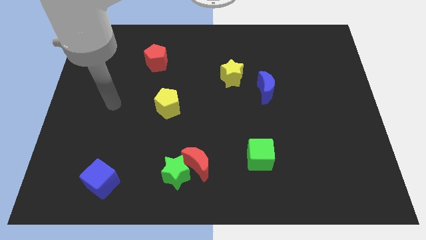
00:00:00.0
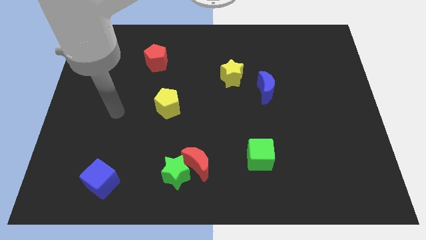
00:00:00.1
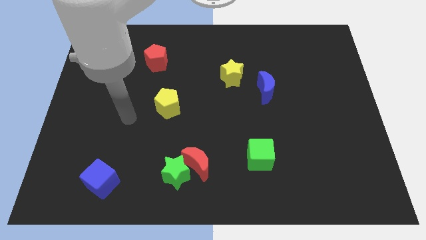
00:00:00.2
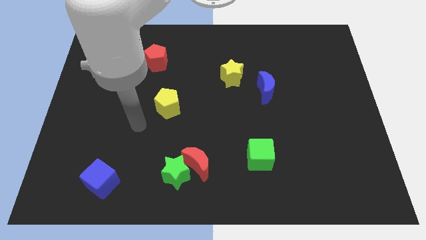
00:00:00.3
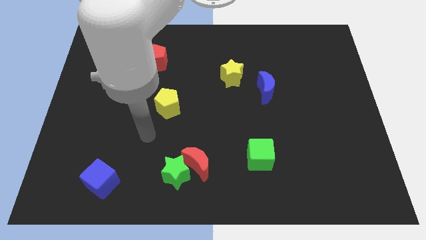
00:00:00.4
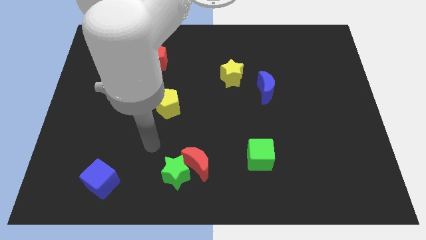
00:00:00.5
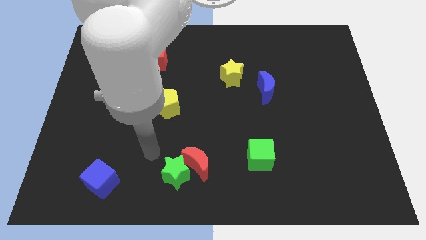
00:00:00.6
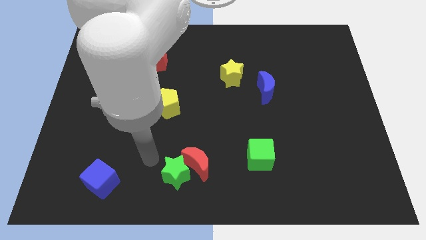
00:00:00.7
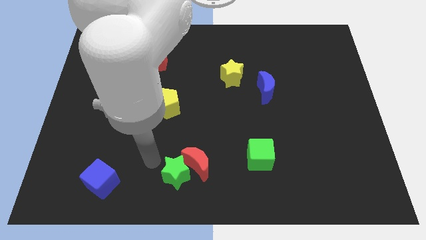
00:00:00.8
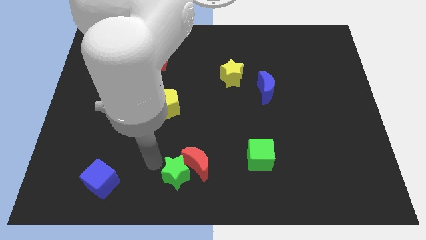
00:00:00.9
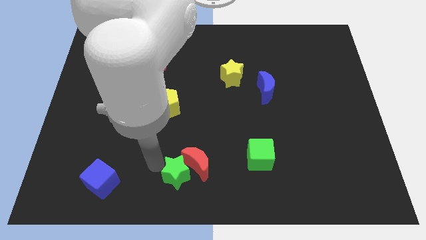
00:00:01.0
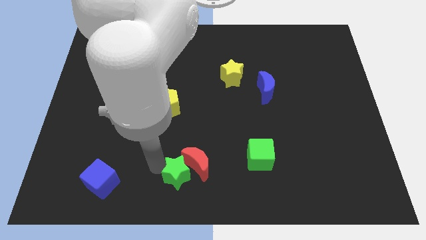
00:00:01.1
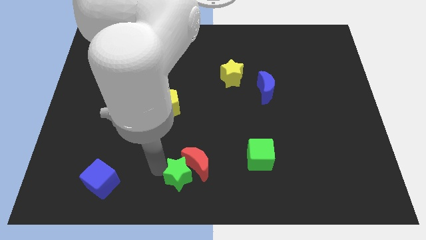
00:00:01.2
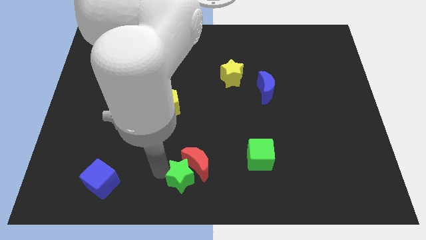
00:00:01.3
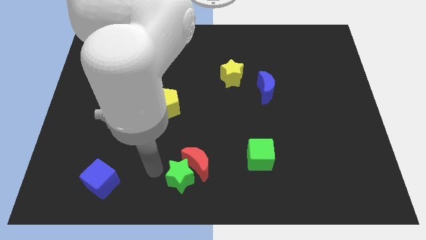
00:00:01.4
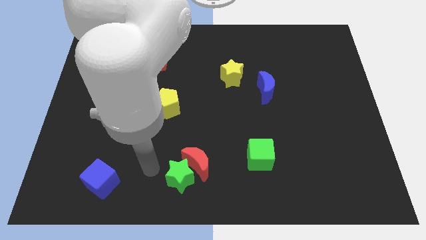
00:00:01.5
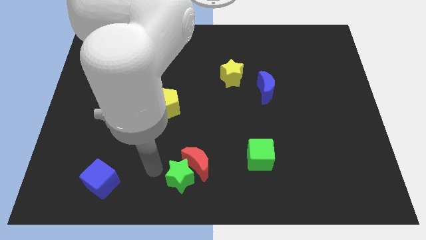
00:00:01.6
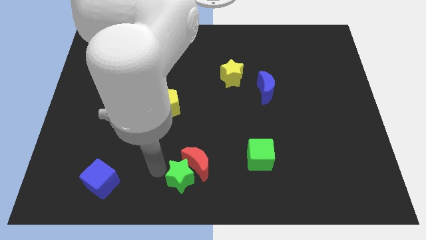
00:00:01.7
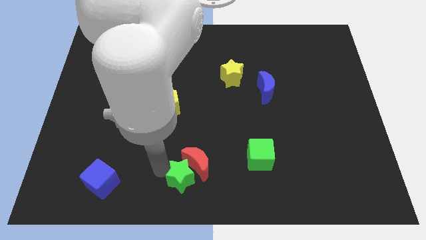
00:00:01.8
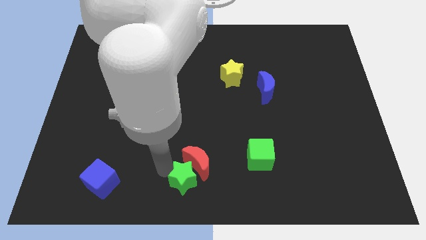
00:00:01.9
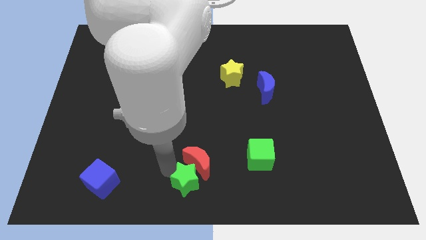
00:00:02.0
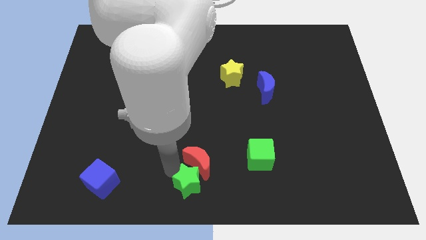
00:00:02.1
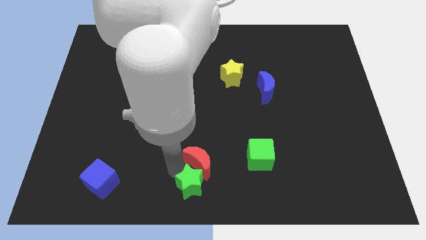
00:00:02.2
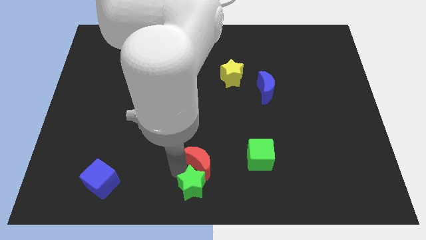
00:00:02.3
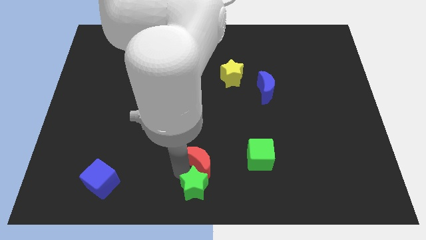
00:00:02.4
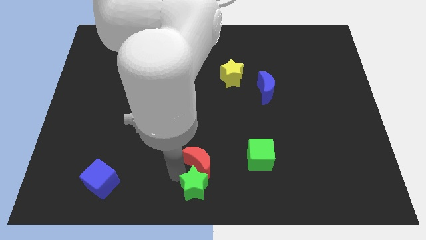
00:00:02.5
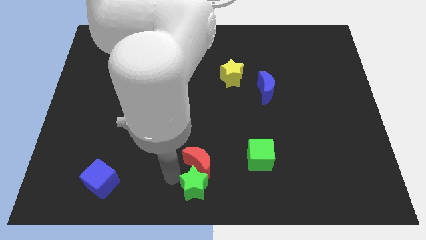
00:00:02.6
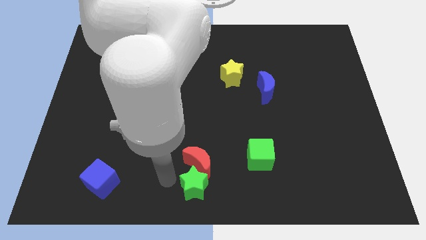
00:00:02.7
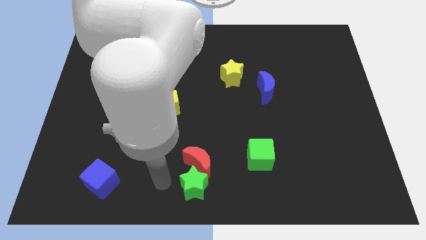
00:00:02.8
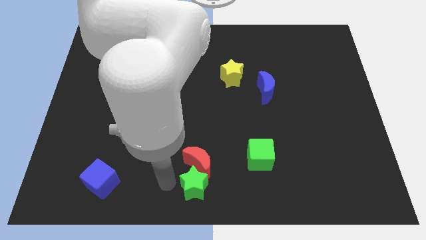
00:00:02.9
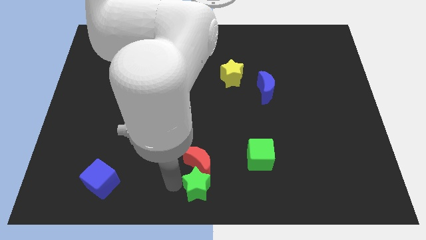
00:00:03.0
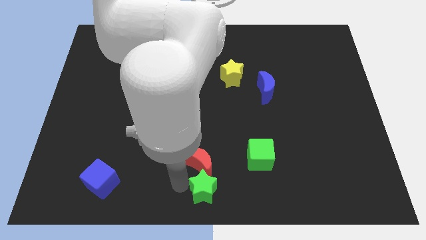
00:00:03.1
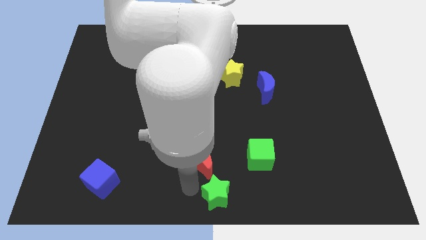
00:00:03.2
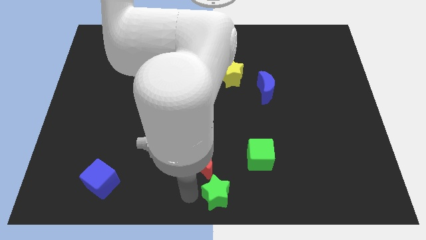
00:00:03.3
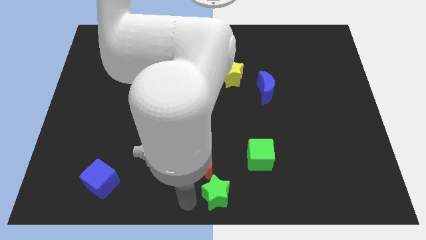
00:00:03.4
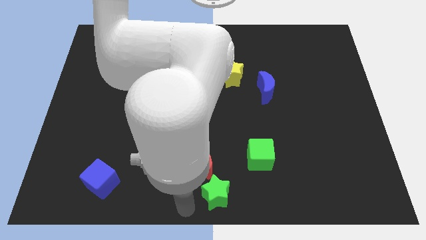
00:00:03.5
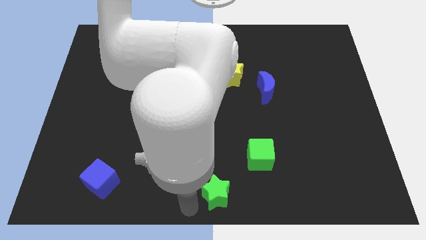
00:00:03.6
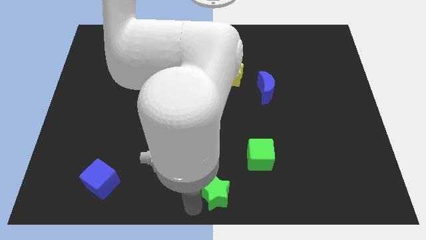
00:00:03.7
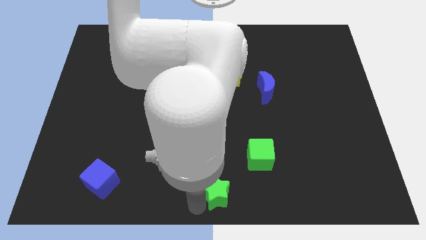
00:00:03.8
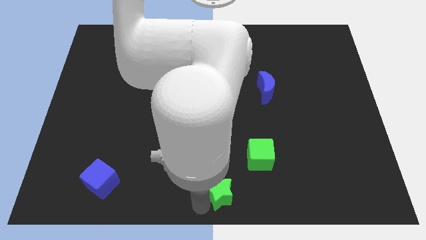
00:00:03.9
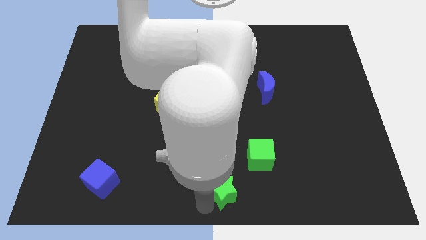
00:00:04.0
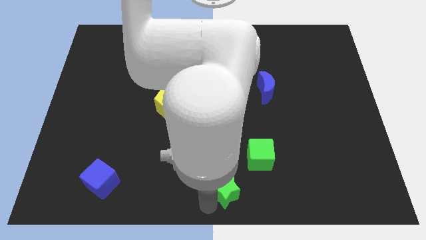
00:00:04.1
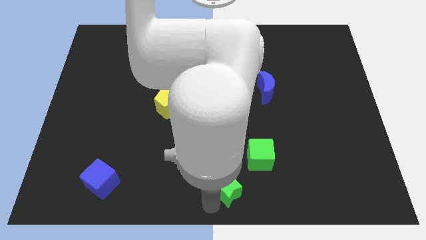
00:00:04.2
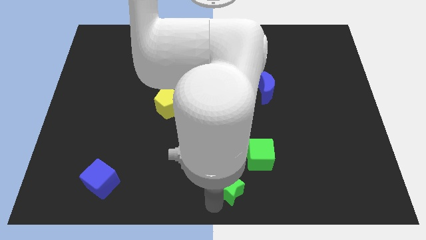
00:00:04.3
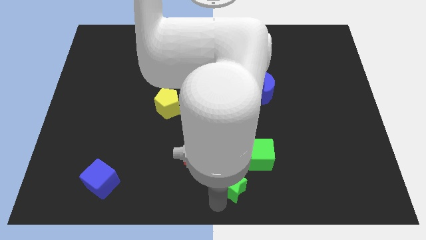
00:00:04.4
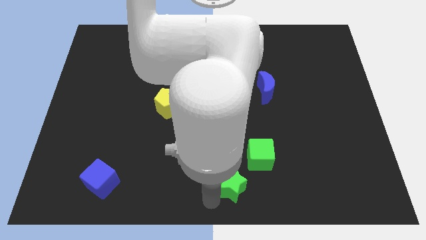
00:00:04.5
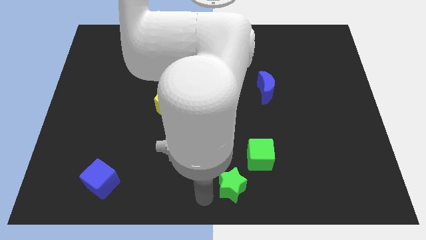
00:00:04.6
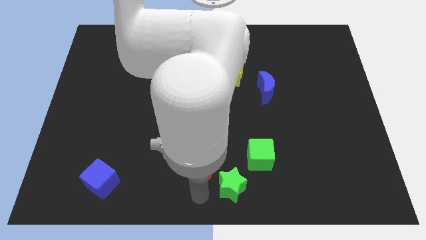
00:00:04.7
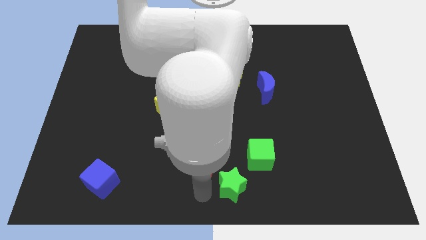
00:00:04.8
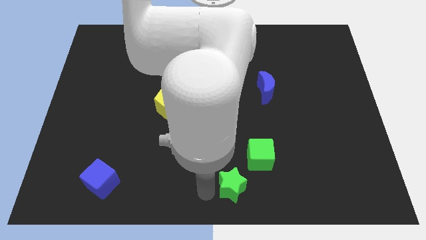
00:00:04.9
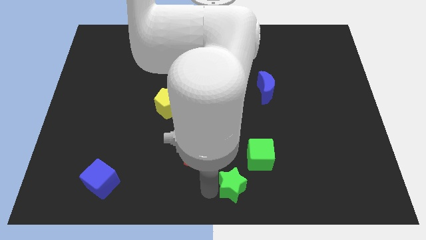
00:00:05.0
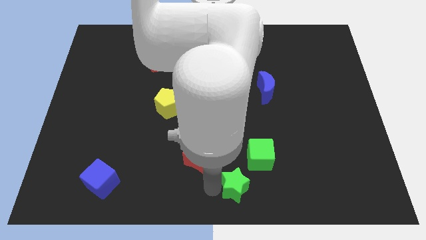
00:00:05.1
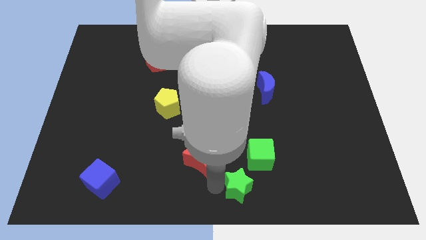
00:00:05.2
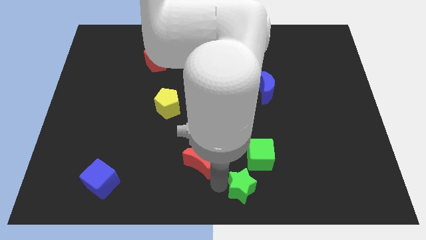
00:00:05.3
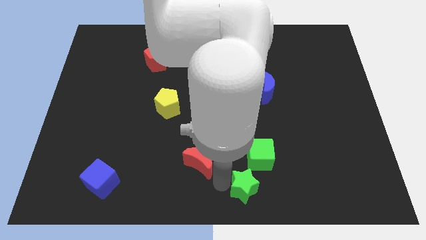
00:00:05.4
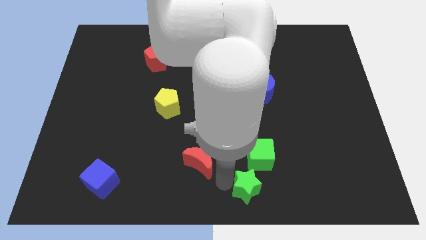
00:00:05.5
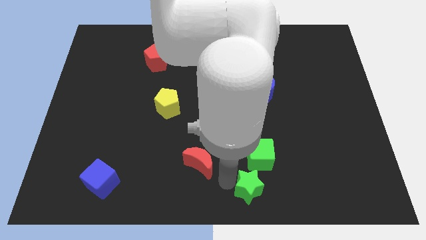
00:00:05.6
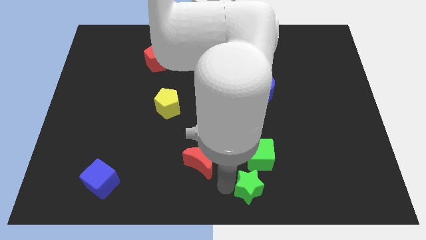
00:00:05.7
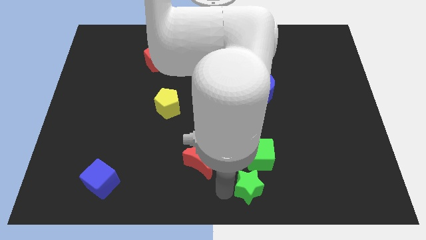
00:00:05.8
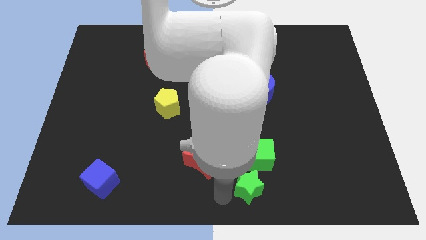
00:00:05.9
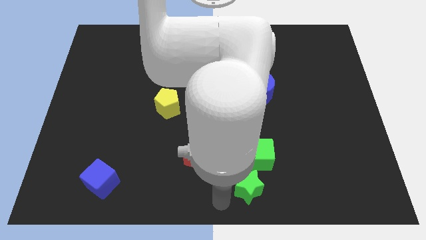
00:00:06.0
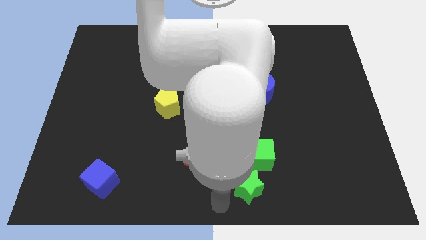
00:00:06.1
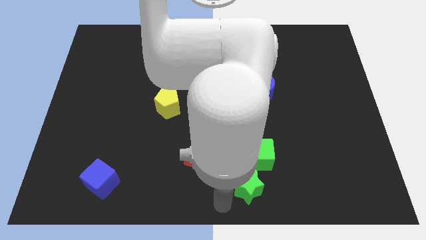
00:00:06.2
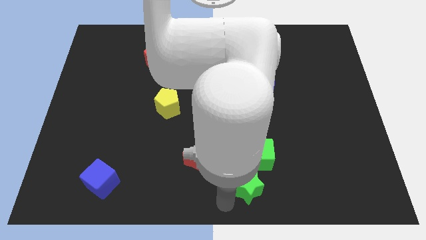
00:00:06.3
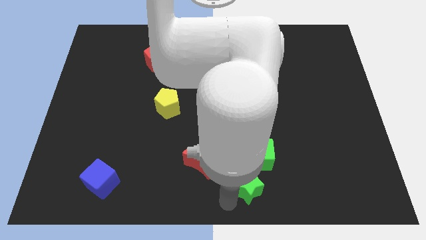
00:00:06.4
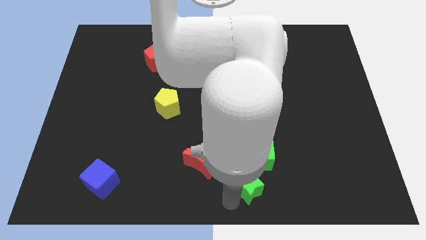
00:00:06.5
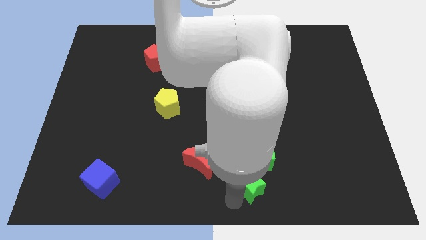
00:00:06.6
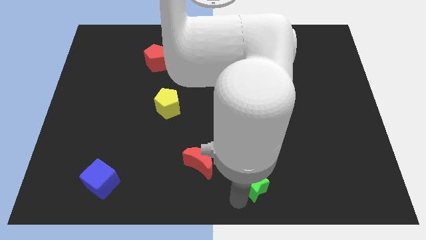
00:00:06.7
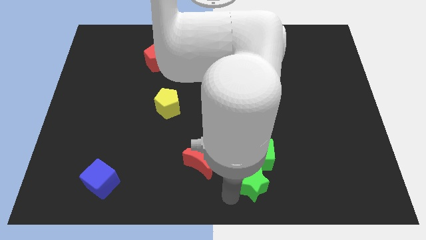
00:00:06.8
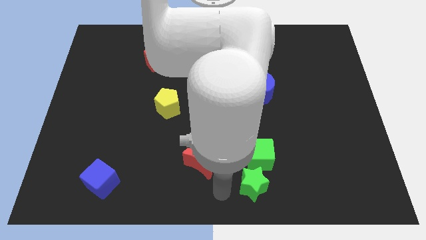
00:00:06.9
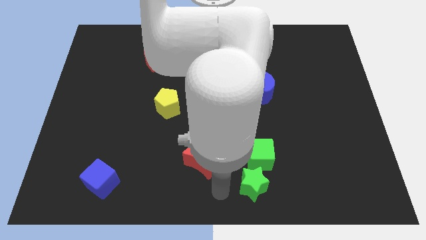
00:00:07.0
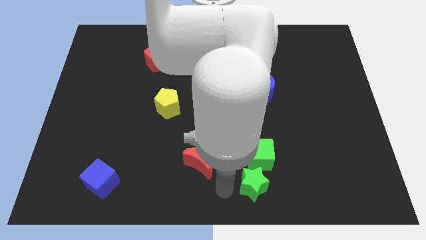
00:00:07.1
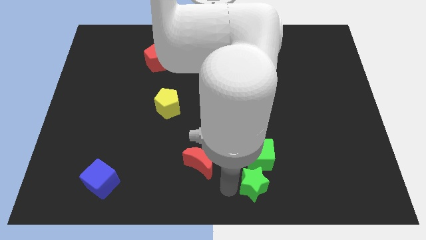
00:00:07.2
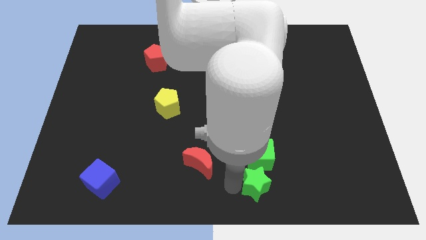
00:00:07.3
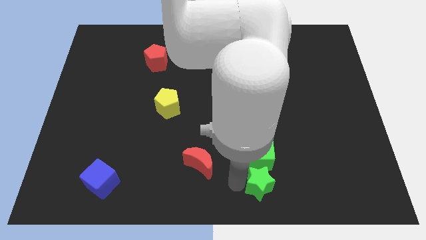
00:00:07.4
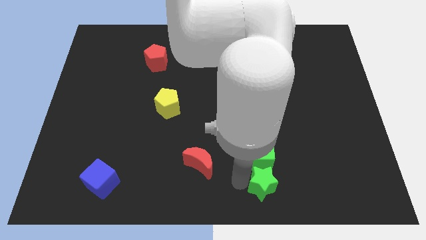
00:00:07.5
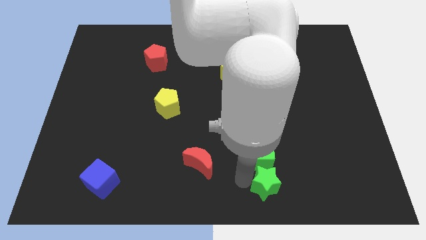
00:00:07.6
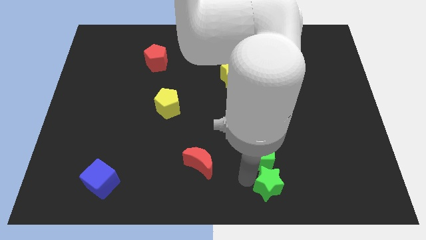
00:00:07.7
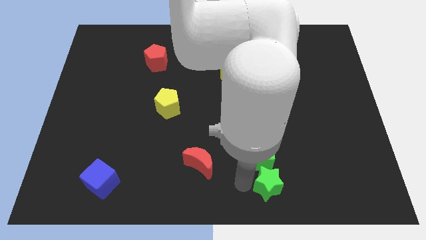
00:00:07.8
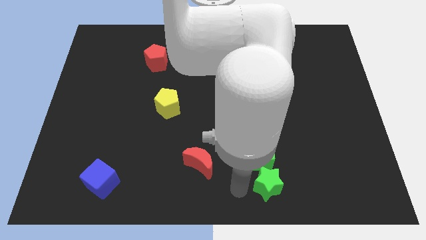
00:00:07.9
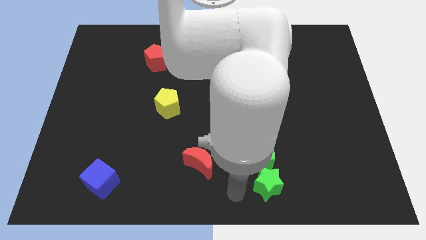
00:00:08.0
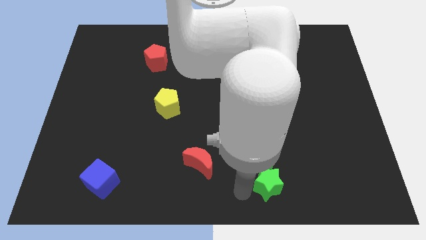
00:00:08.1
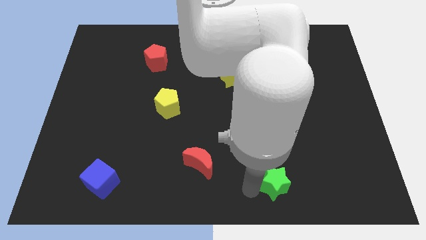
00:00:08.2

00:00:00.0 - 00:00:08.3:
push the green star right
